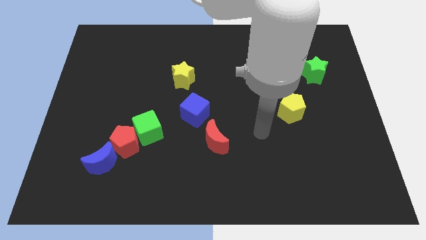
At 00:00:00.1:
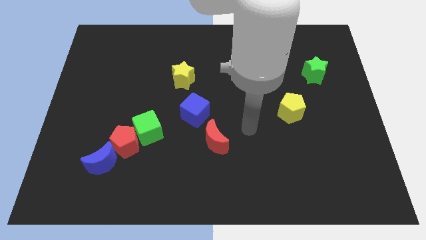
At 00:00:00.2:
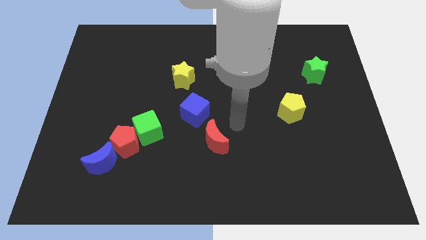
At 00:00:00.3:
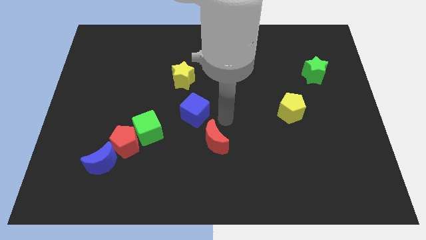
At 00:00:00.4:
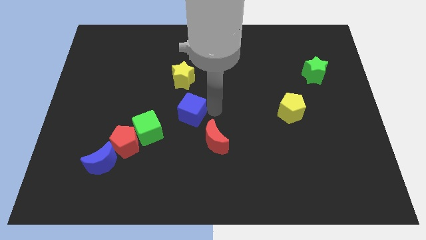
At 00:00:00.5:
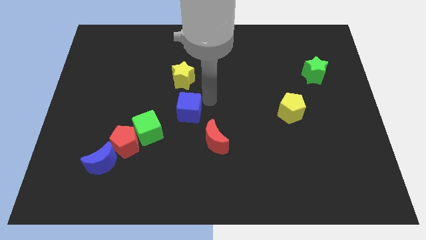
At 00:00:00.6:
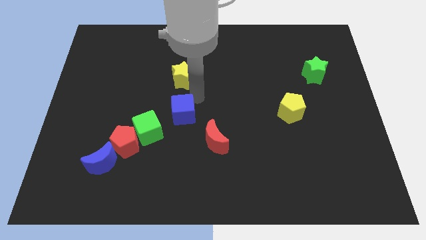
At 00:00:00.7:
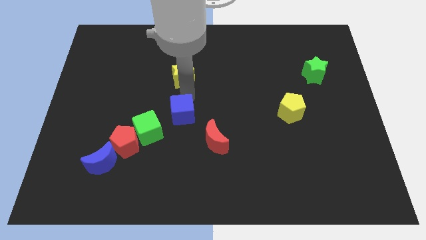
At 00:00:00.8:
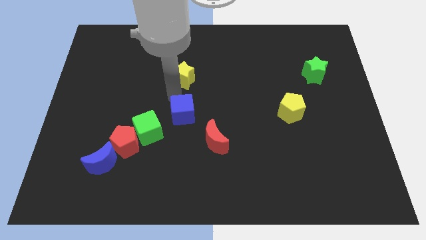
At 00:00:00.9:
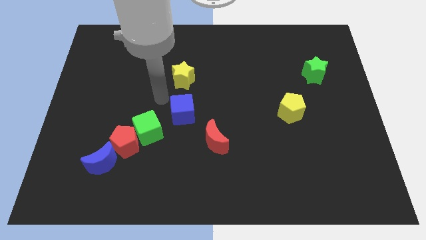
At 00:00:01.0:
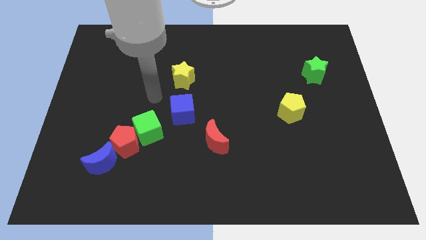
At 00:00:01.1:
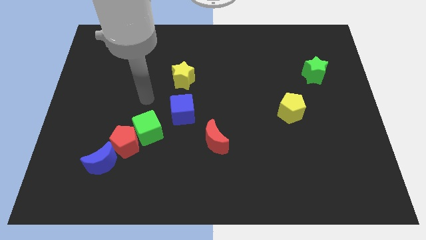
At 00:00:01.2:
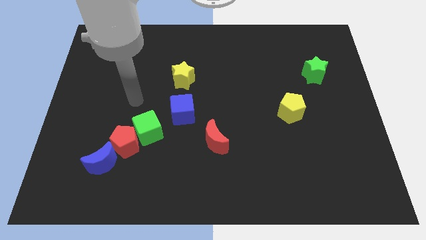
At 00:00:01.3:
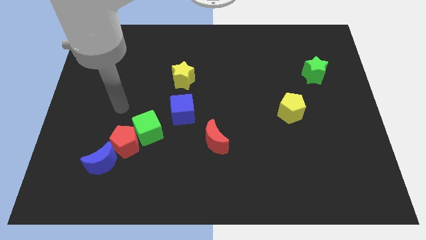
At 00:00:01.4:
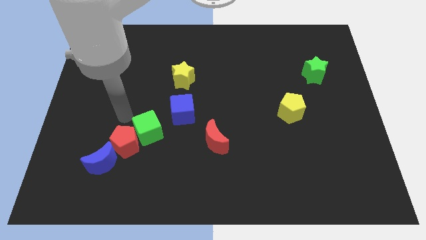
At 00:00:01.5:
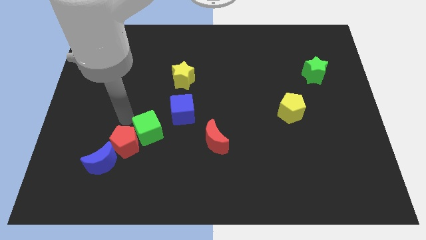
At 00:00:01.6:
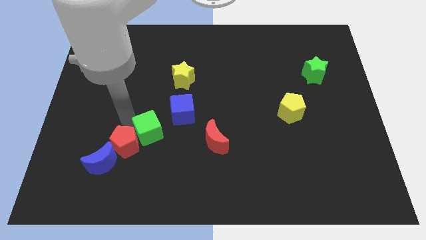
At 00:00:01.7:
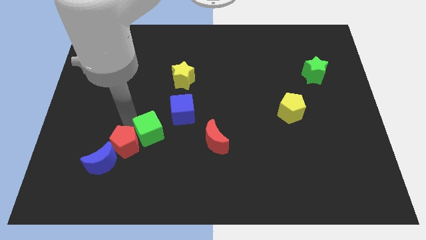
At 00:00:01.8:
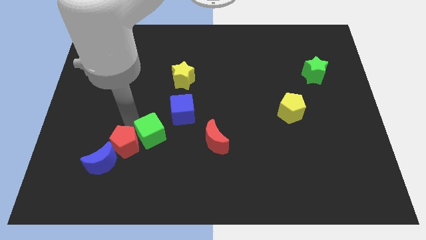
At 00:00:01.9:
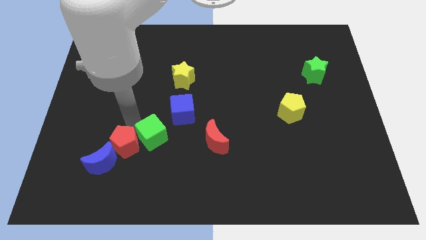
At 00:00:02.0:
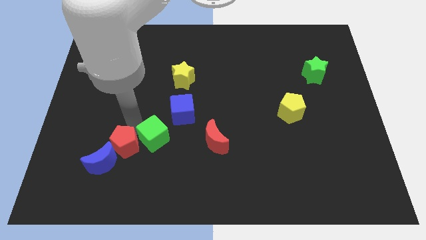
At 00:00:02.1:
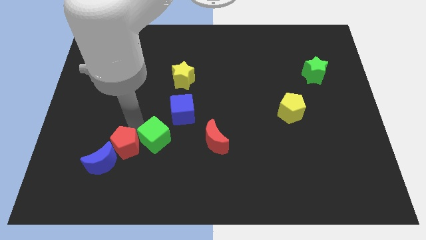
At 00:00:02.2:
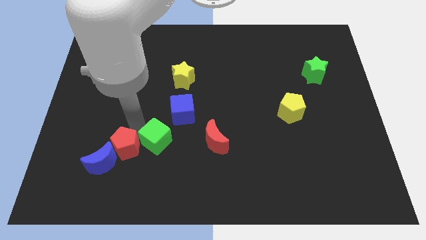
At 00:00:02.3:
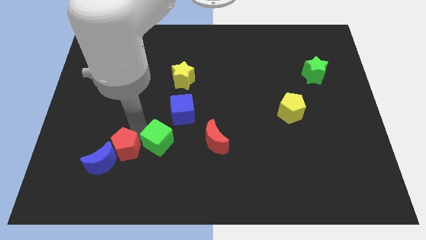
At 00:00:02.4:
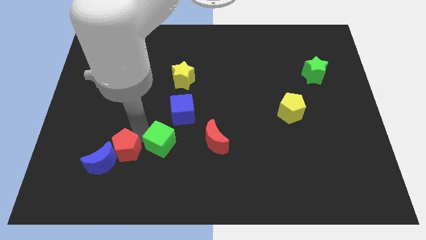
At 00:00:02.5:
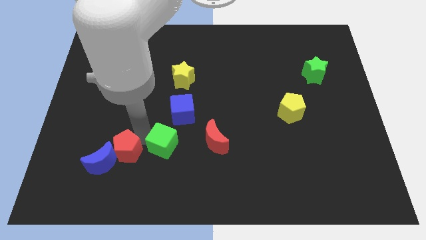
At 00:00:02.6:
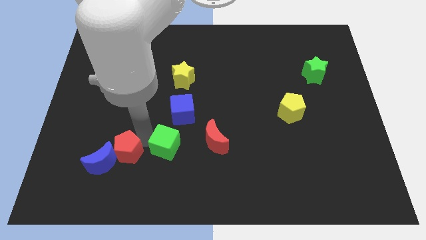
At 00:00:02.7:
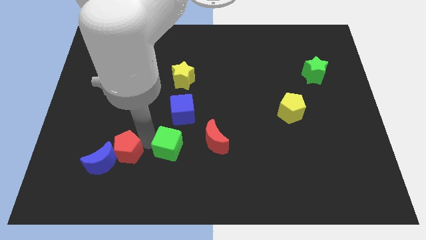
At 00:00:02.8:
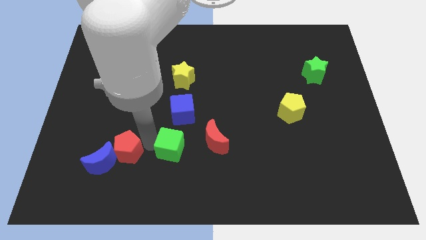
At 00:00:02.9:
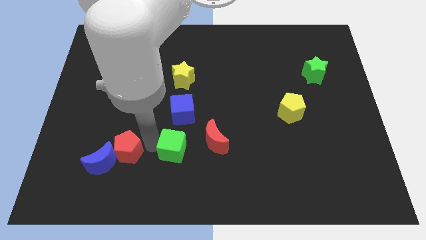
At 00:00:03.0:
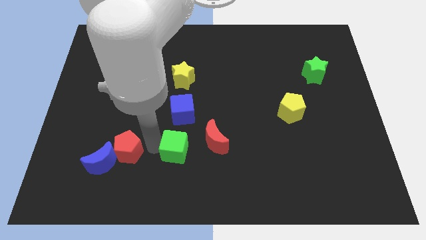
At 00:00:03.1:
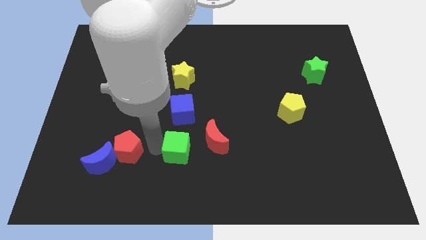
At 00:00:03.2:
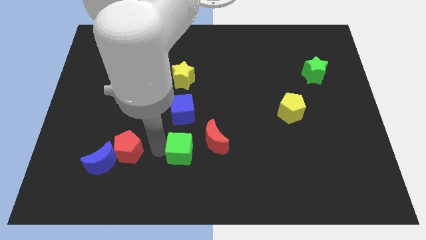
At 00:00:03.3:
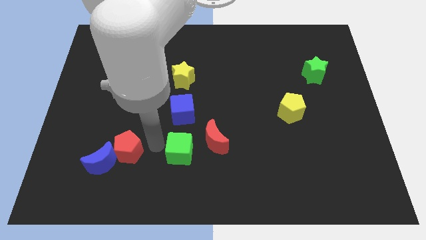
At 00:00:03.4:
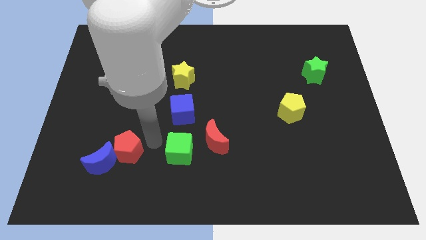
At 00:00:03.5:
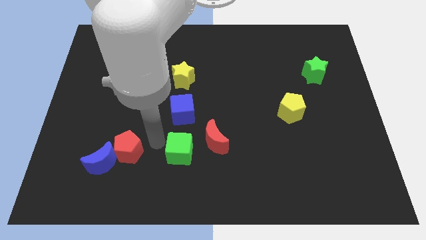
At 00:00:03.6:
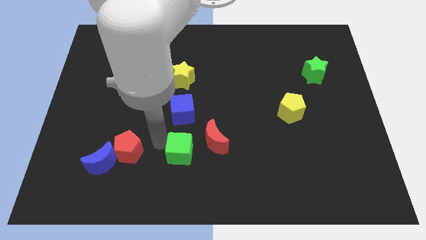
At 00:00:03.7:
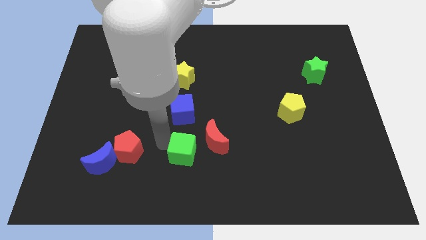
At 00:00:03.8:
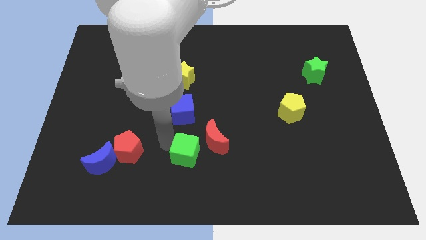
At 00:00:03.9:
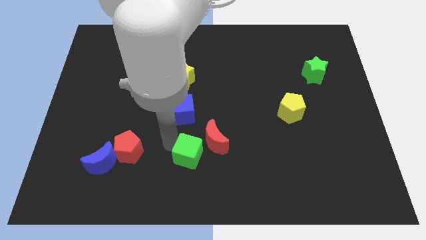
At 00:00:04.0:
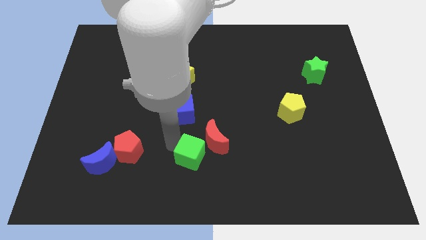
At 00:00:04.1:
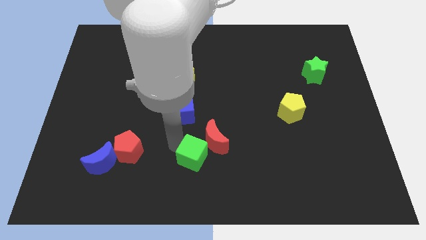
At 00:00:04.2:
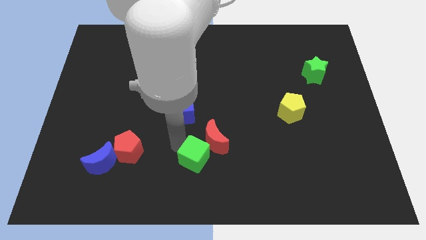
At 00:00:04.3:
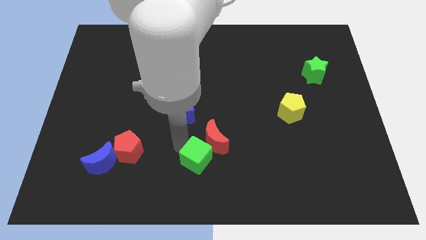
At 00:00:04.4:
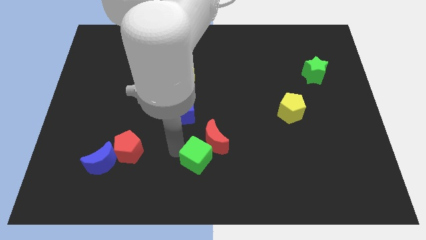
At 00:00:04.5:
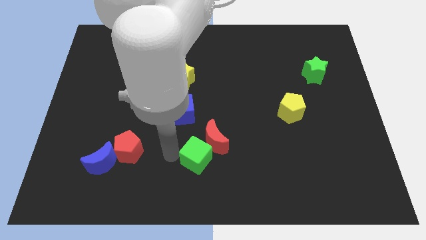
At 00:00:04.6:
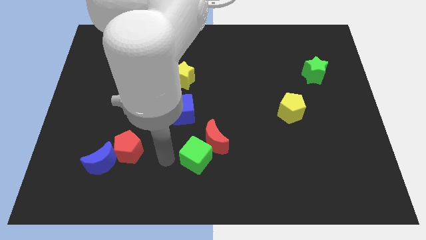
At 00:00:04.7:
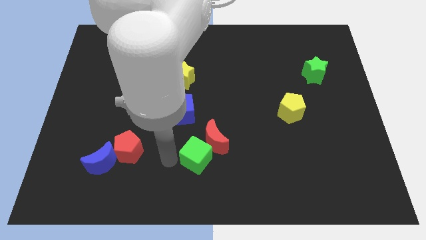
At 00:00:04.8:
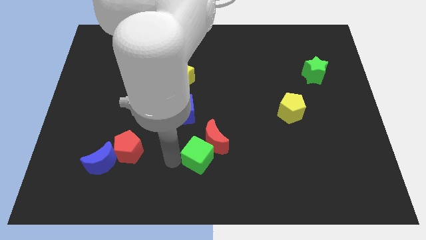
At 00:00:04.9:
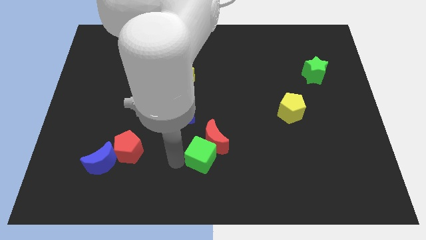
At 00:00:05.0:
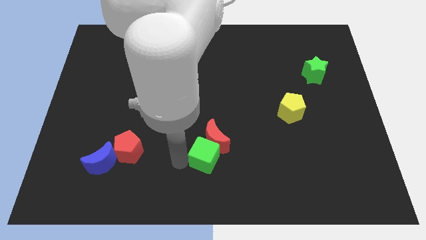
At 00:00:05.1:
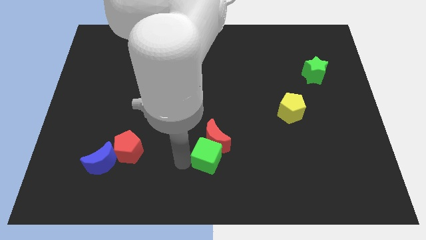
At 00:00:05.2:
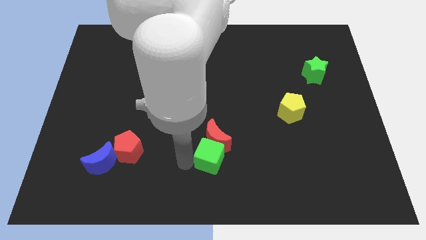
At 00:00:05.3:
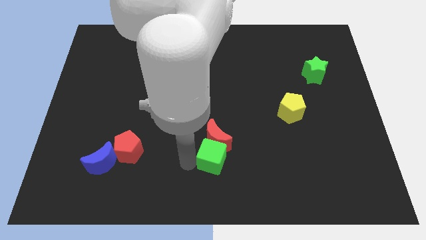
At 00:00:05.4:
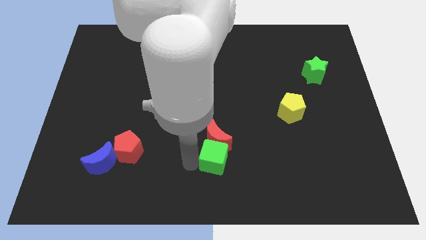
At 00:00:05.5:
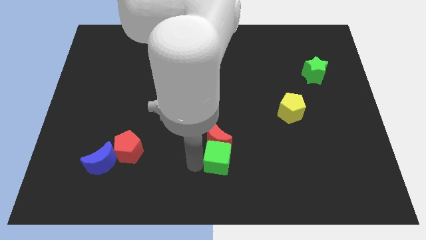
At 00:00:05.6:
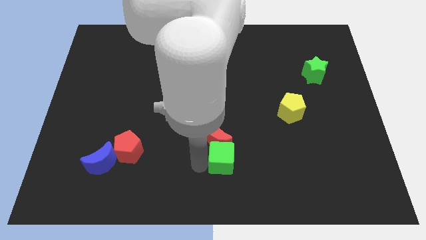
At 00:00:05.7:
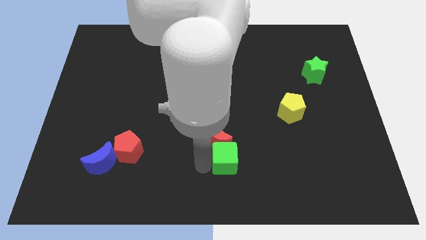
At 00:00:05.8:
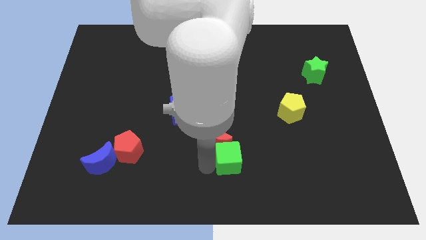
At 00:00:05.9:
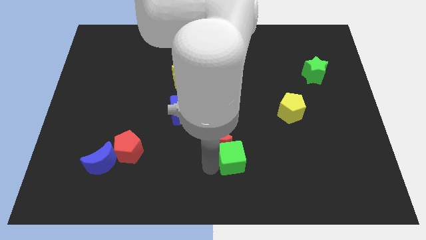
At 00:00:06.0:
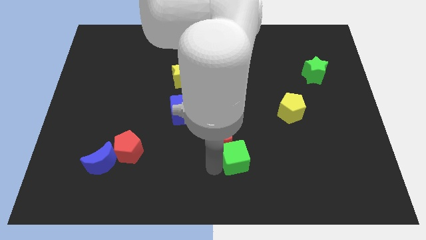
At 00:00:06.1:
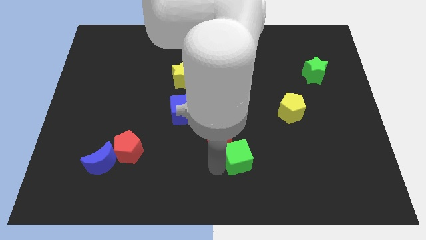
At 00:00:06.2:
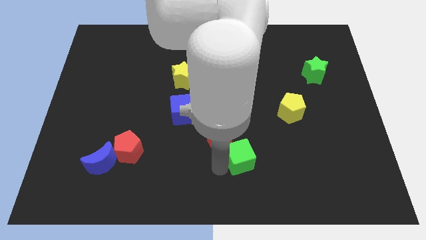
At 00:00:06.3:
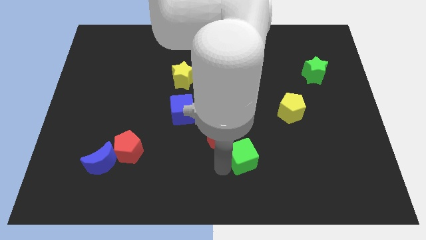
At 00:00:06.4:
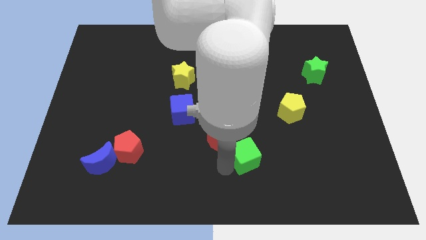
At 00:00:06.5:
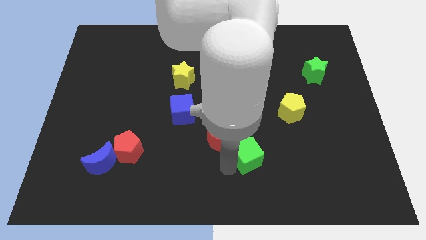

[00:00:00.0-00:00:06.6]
push the green cube right

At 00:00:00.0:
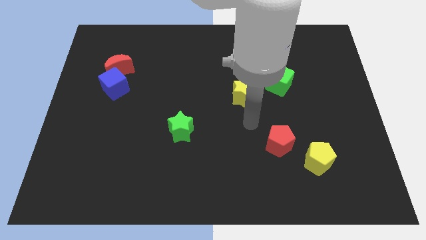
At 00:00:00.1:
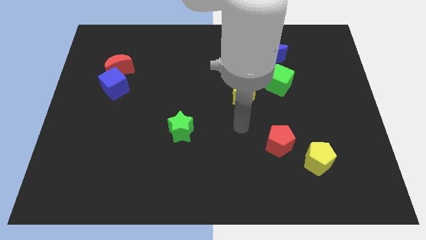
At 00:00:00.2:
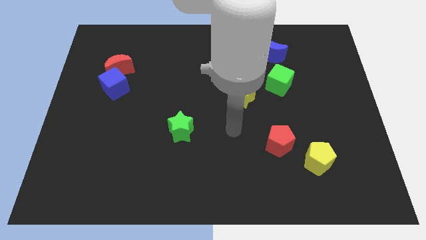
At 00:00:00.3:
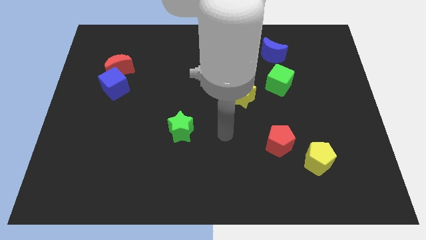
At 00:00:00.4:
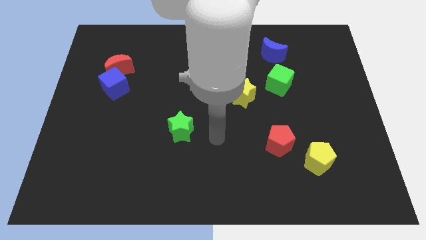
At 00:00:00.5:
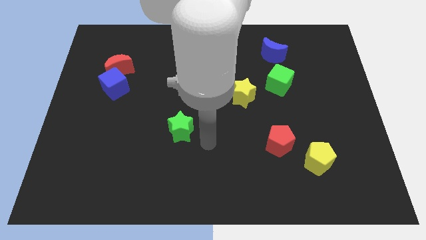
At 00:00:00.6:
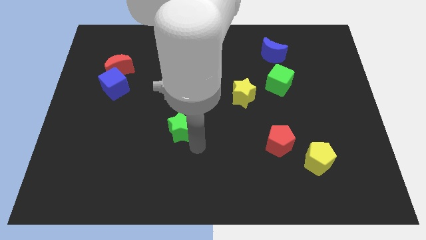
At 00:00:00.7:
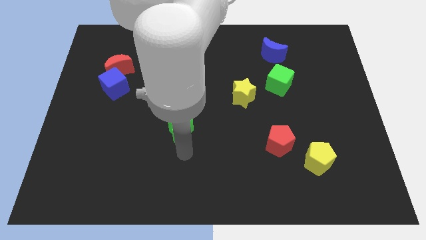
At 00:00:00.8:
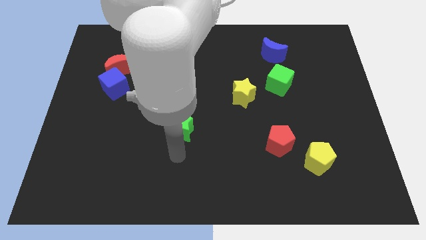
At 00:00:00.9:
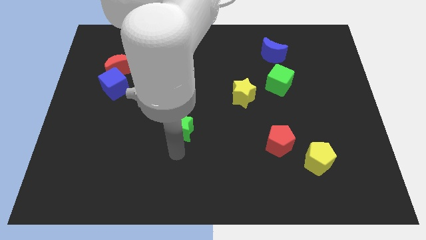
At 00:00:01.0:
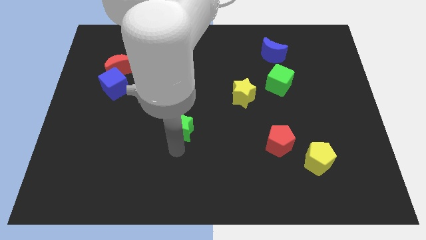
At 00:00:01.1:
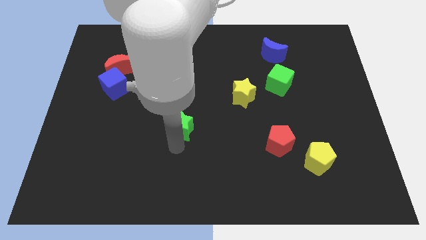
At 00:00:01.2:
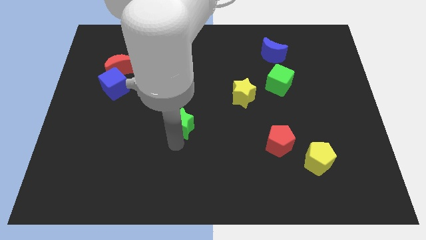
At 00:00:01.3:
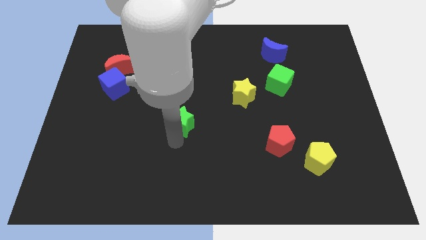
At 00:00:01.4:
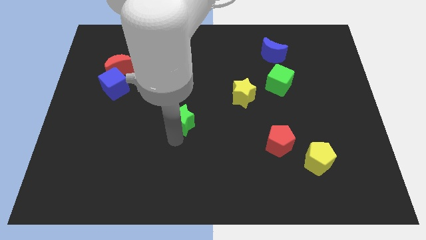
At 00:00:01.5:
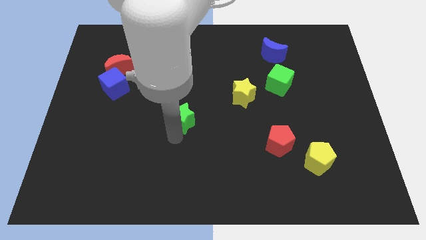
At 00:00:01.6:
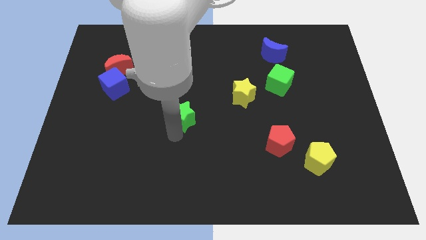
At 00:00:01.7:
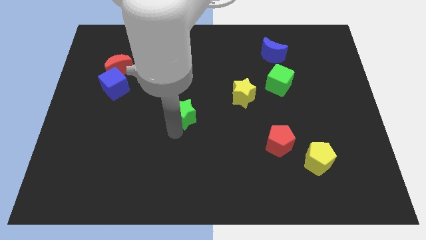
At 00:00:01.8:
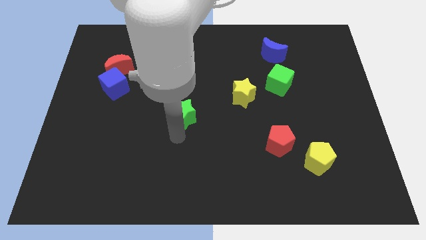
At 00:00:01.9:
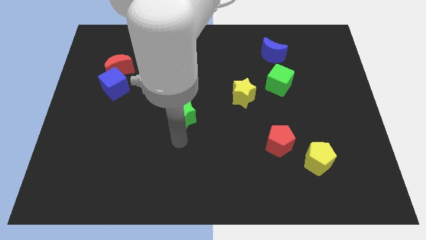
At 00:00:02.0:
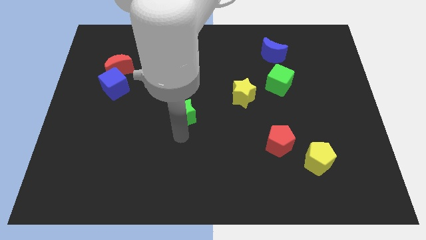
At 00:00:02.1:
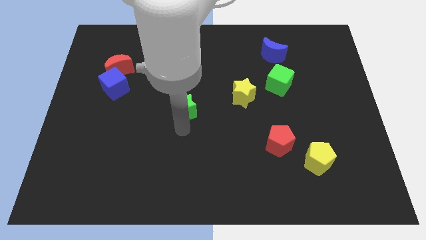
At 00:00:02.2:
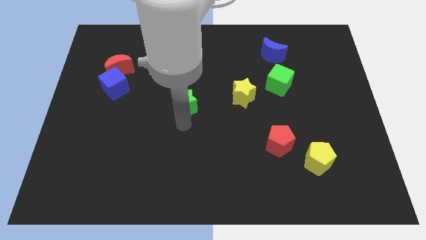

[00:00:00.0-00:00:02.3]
push the green star somewhat upwards
